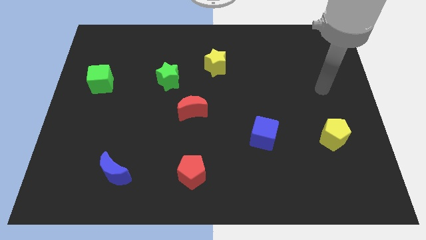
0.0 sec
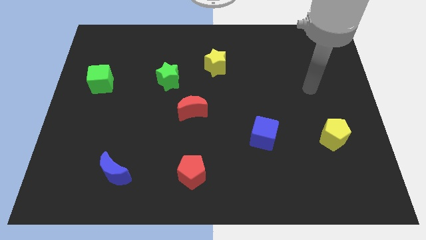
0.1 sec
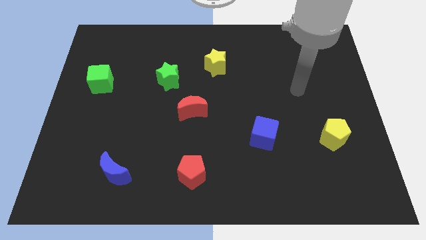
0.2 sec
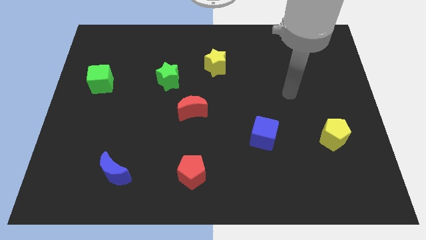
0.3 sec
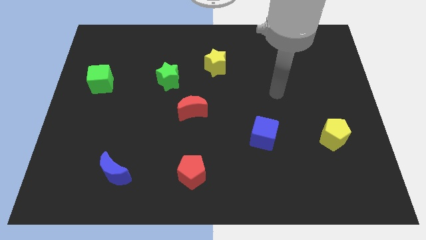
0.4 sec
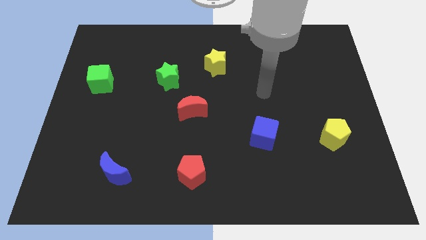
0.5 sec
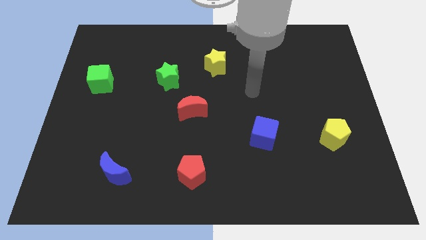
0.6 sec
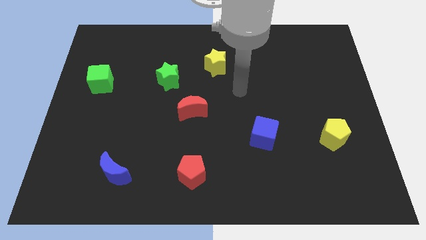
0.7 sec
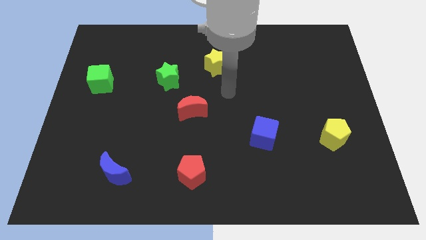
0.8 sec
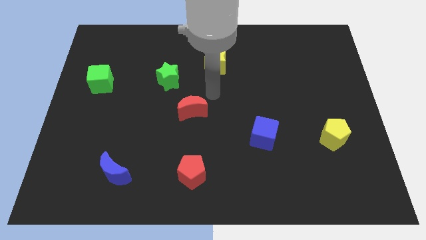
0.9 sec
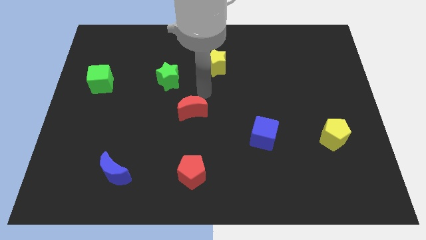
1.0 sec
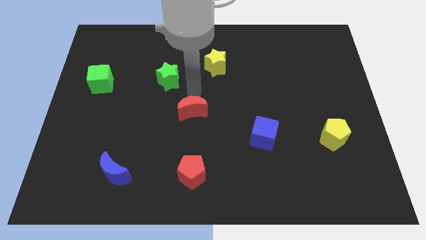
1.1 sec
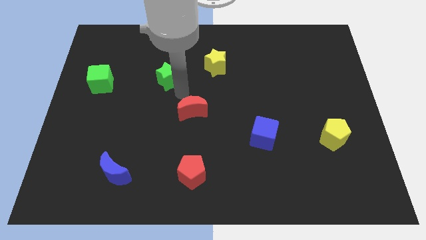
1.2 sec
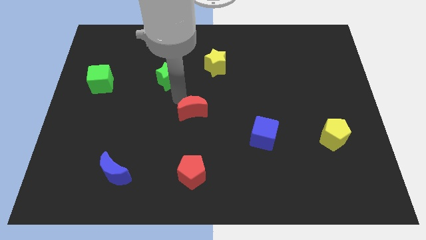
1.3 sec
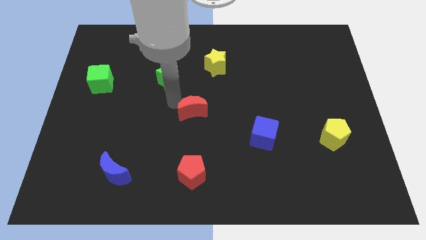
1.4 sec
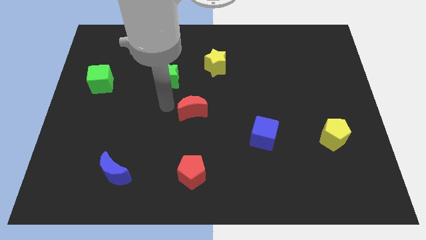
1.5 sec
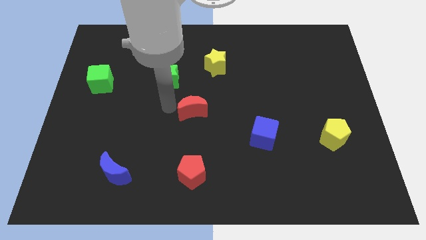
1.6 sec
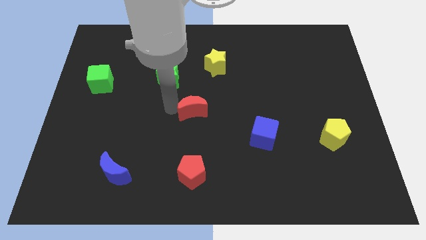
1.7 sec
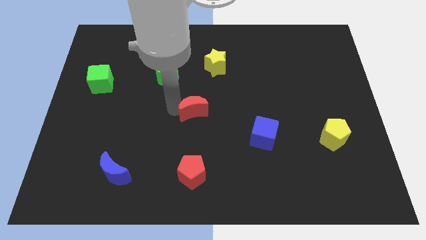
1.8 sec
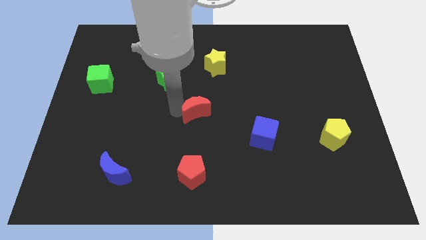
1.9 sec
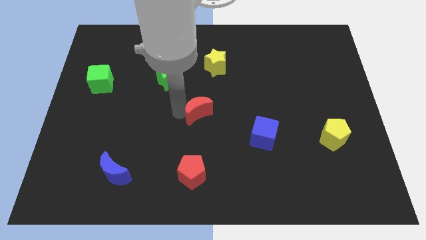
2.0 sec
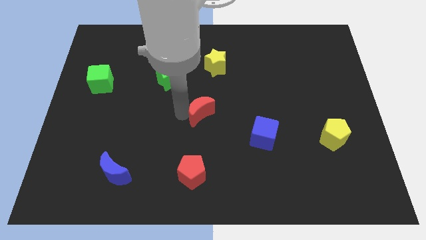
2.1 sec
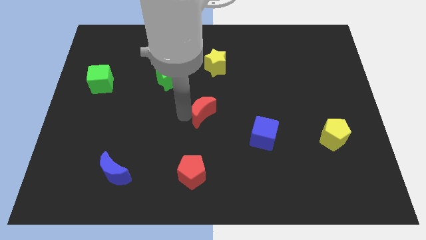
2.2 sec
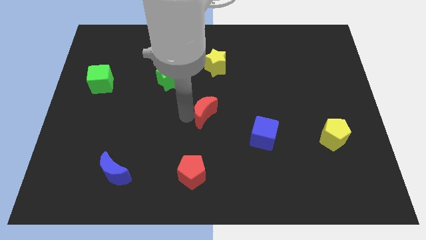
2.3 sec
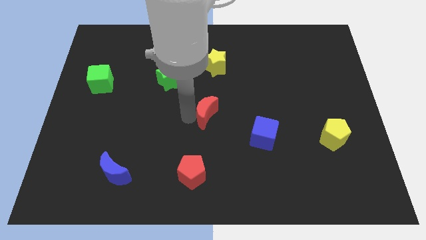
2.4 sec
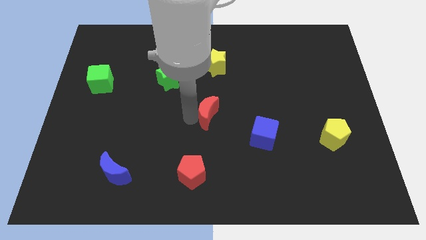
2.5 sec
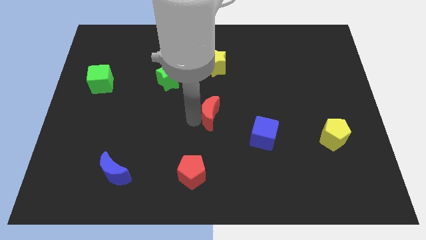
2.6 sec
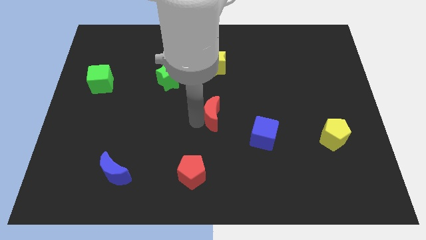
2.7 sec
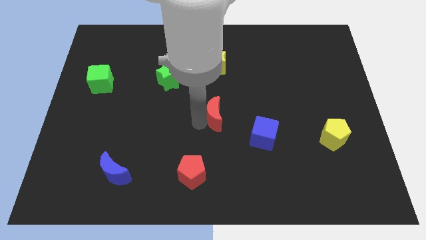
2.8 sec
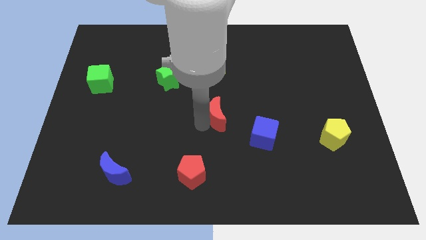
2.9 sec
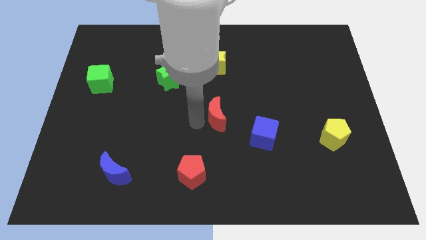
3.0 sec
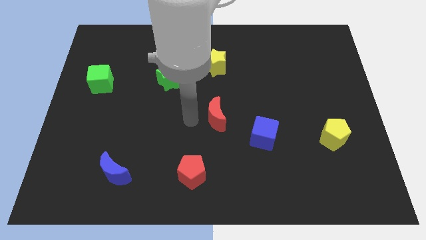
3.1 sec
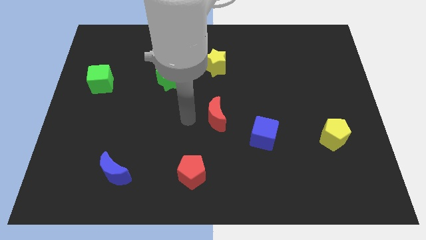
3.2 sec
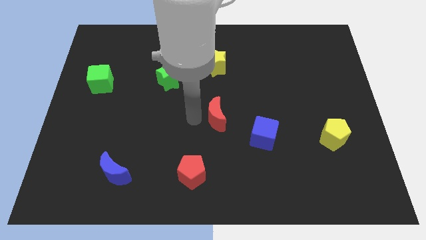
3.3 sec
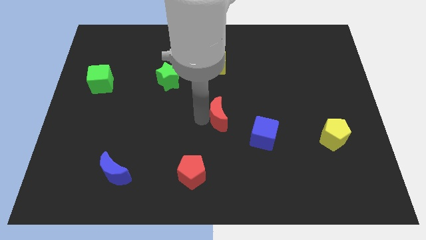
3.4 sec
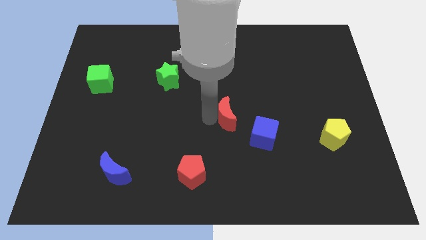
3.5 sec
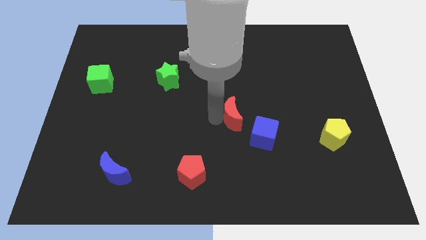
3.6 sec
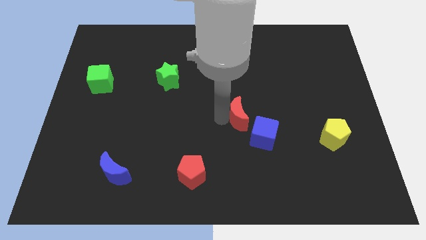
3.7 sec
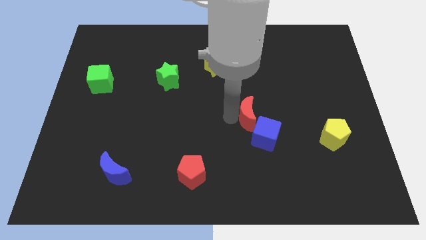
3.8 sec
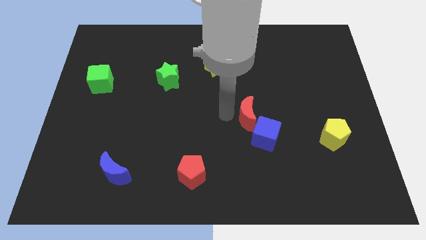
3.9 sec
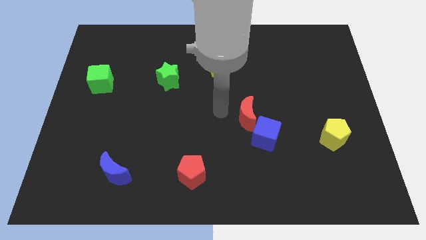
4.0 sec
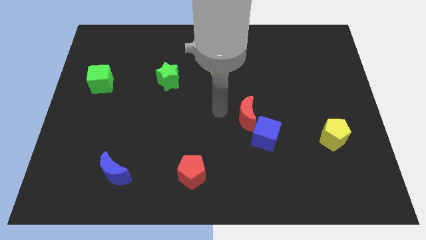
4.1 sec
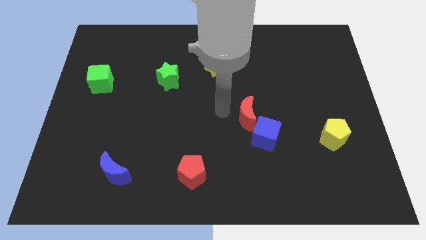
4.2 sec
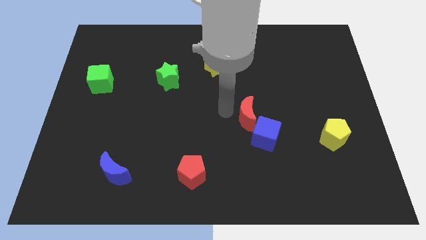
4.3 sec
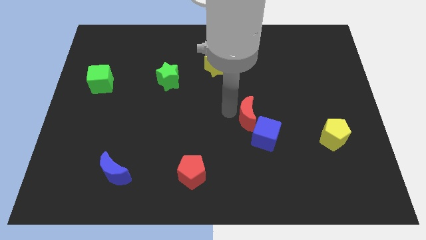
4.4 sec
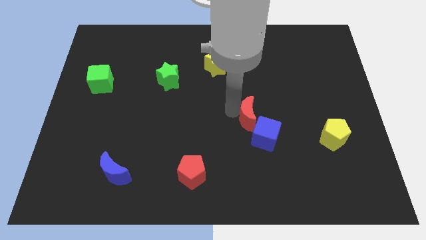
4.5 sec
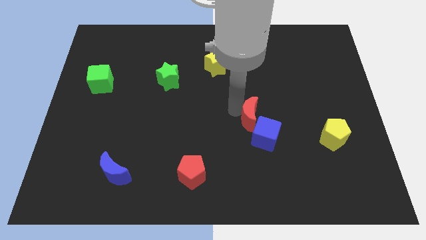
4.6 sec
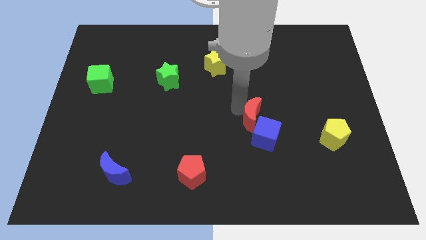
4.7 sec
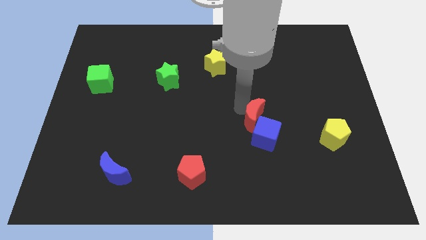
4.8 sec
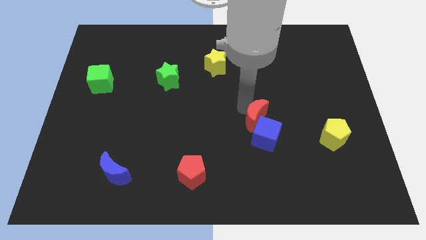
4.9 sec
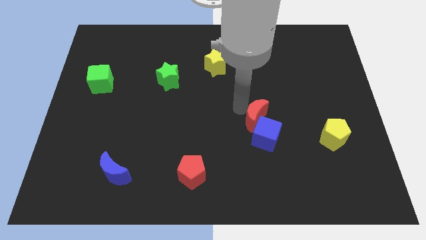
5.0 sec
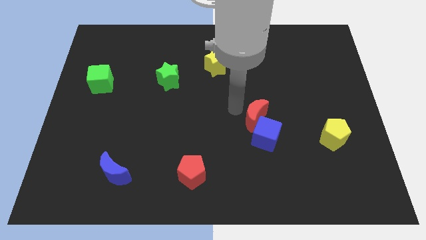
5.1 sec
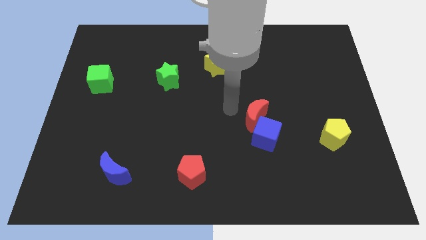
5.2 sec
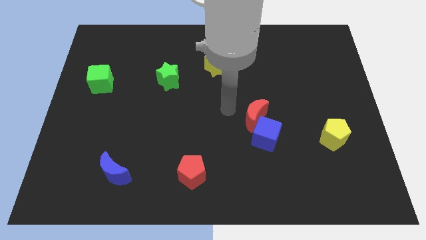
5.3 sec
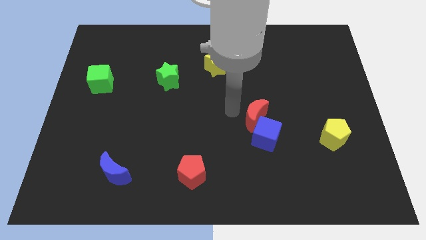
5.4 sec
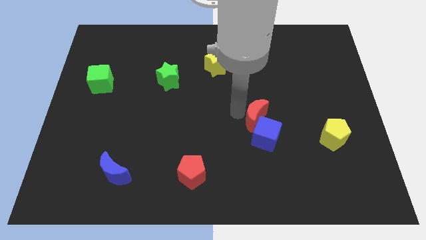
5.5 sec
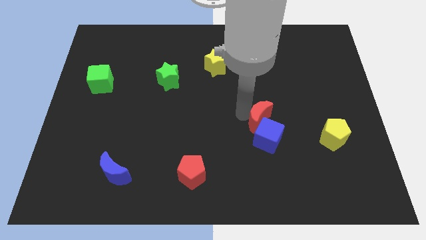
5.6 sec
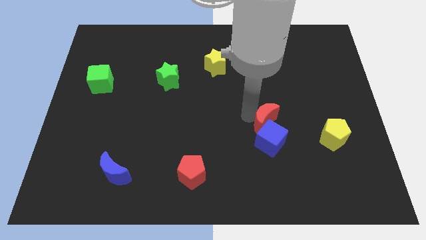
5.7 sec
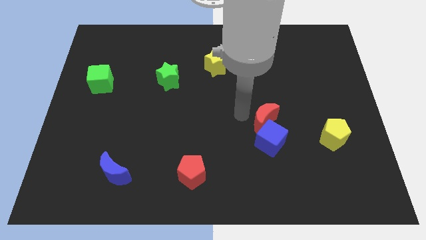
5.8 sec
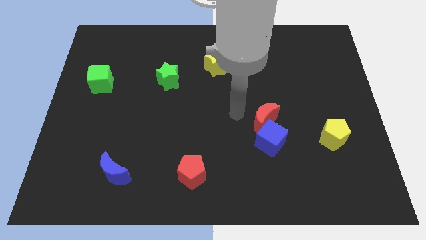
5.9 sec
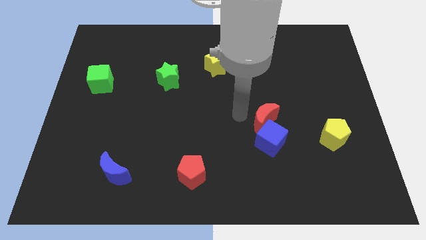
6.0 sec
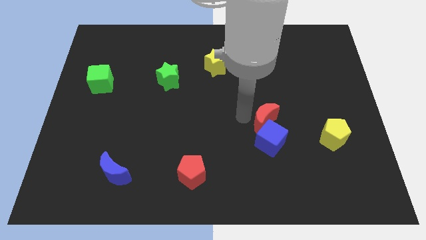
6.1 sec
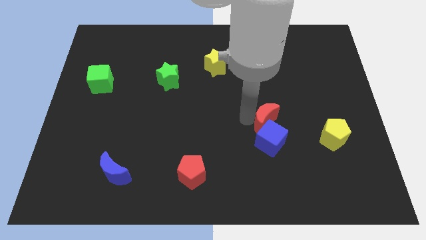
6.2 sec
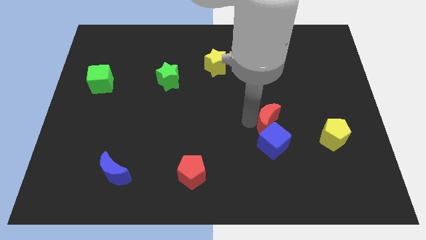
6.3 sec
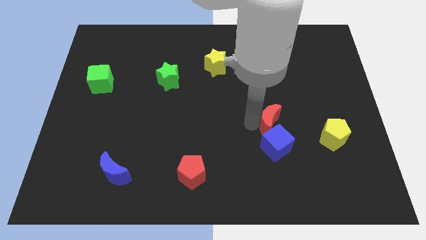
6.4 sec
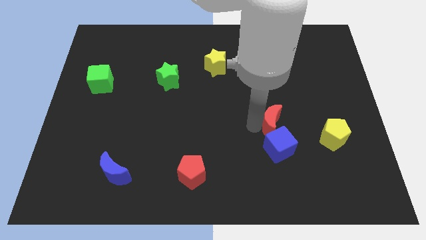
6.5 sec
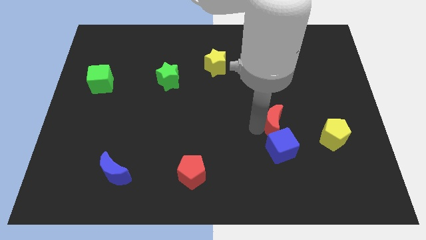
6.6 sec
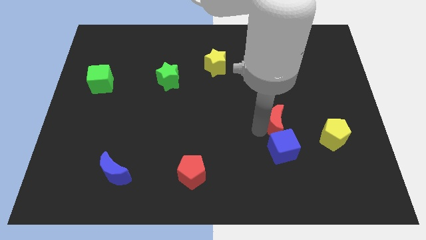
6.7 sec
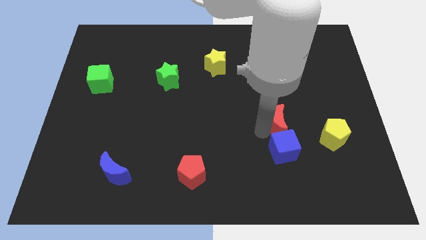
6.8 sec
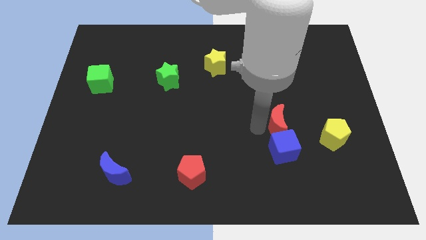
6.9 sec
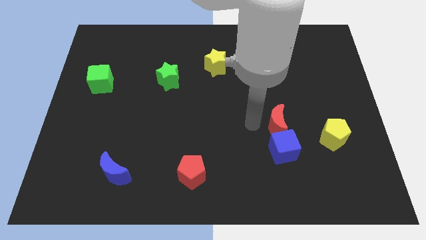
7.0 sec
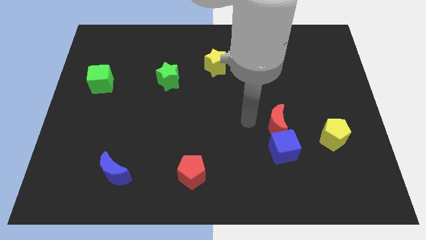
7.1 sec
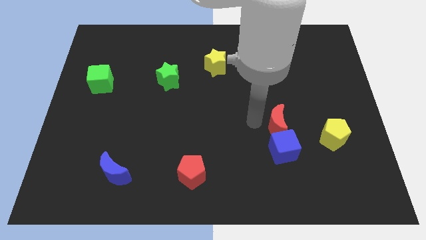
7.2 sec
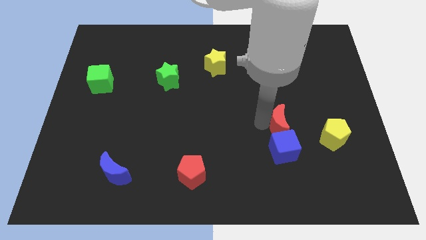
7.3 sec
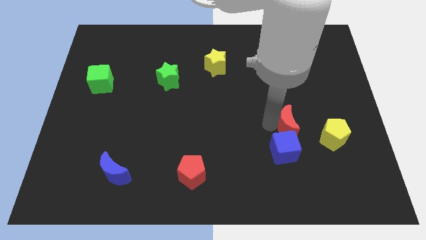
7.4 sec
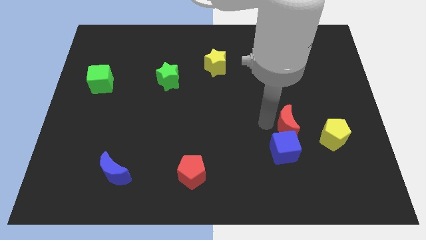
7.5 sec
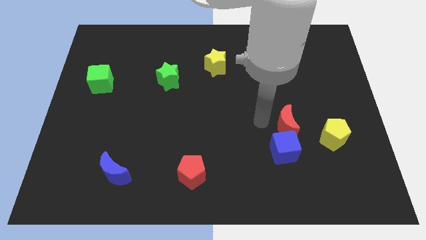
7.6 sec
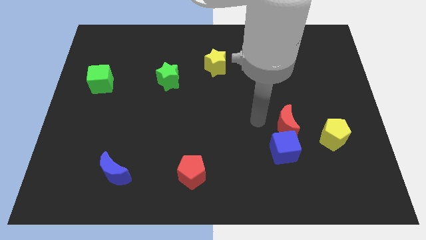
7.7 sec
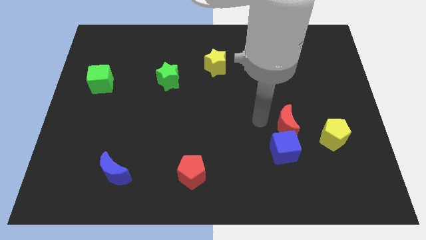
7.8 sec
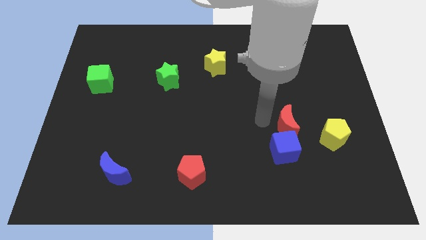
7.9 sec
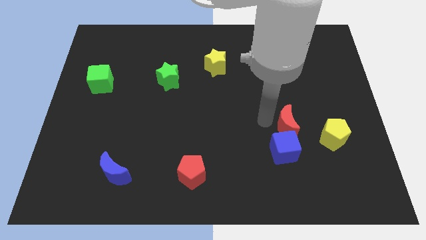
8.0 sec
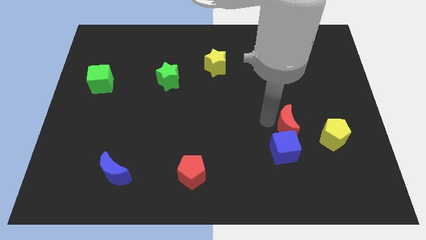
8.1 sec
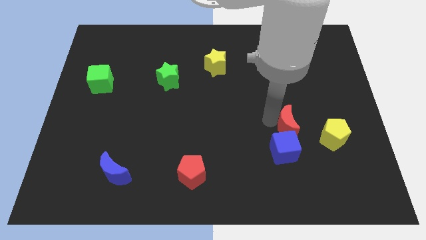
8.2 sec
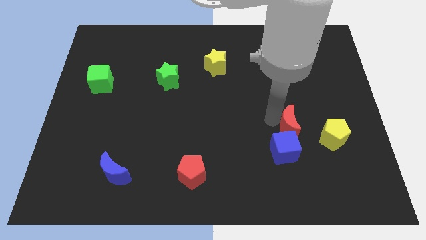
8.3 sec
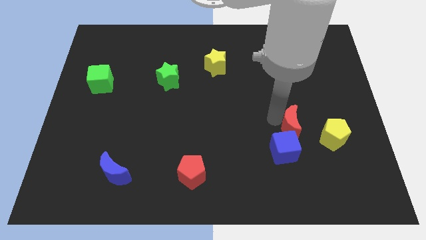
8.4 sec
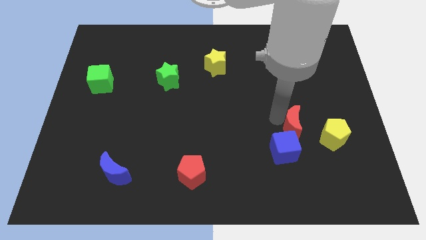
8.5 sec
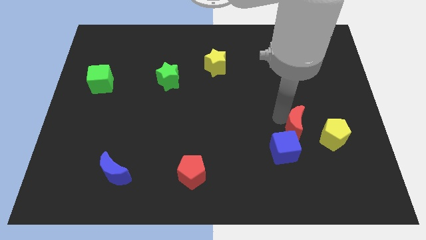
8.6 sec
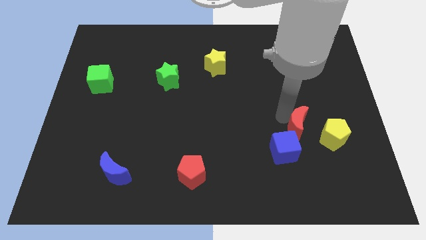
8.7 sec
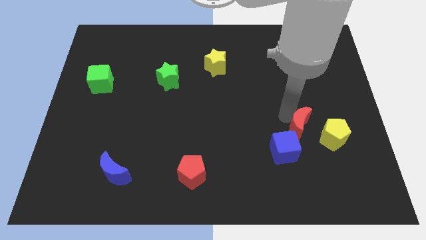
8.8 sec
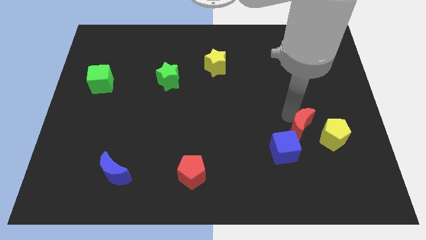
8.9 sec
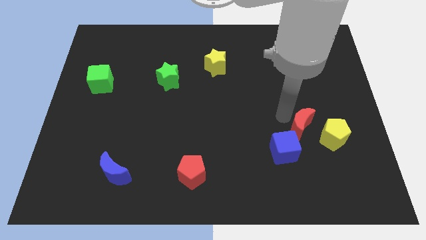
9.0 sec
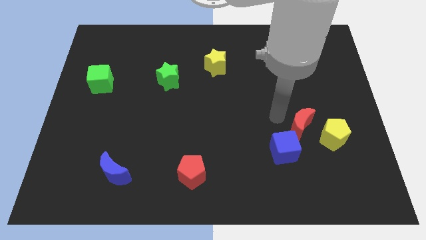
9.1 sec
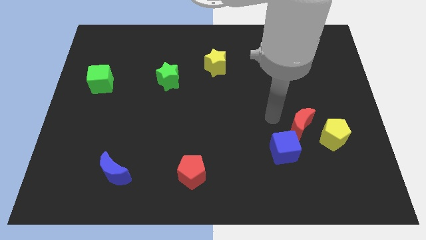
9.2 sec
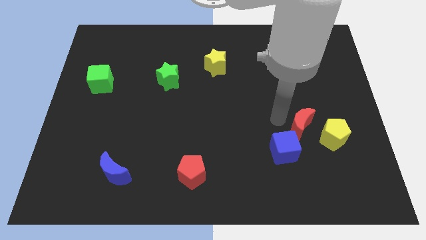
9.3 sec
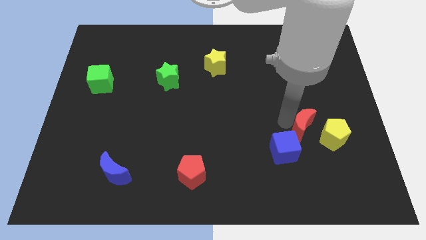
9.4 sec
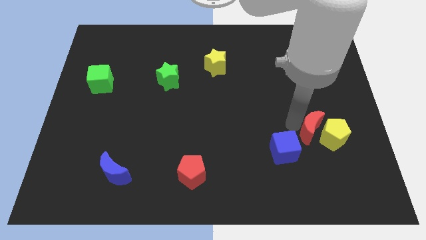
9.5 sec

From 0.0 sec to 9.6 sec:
move the red moon to the yellow pentagon
